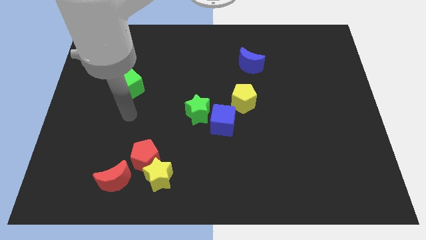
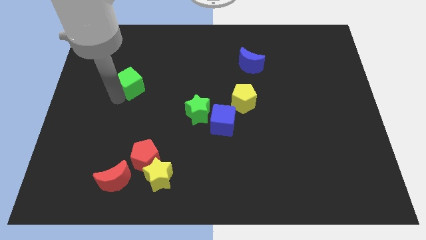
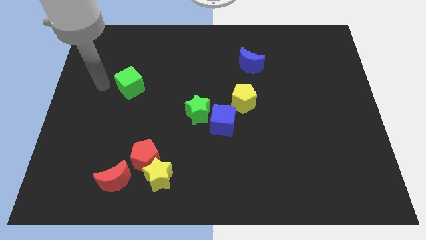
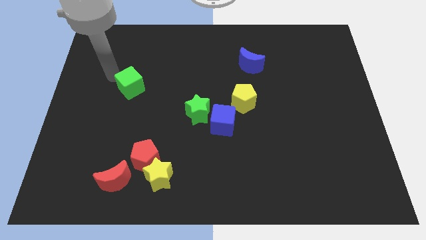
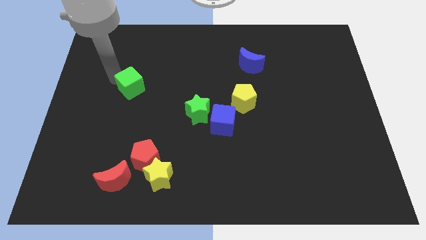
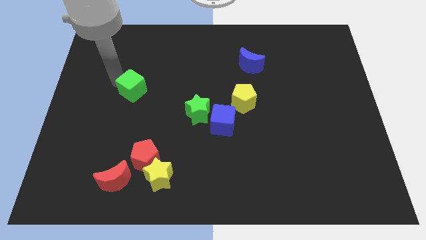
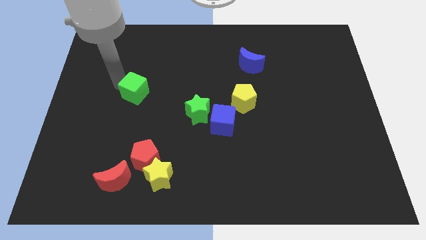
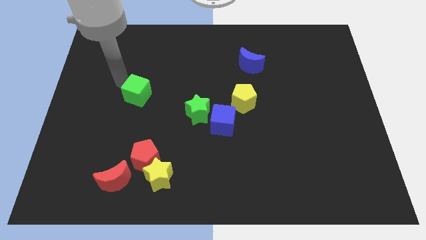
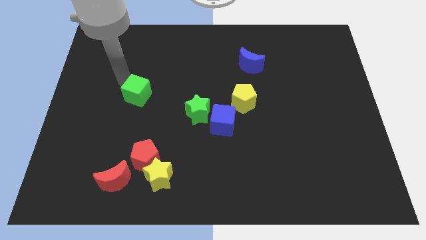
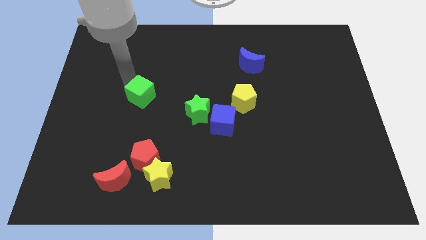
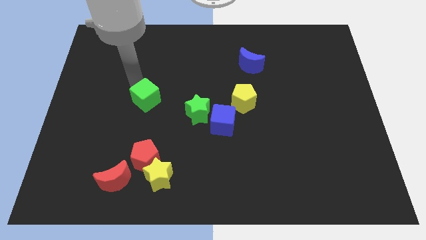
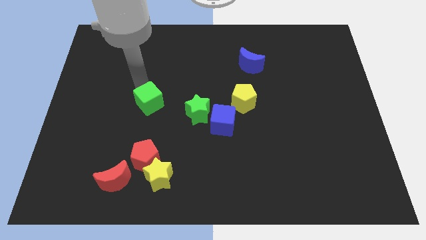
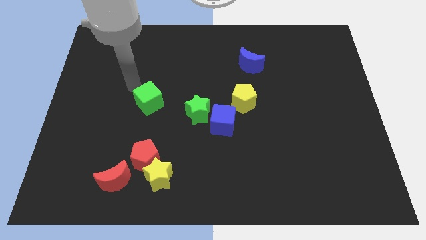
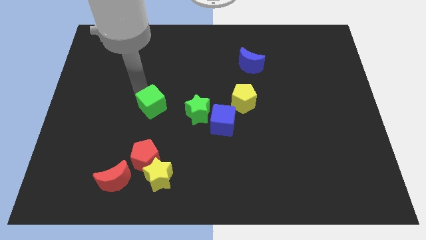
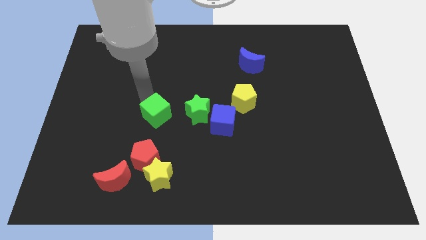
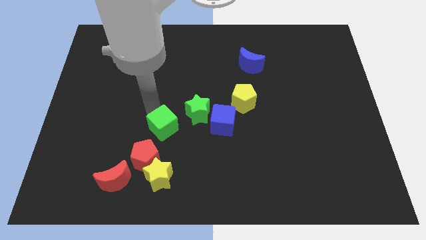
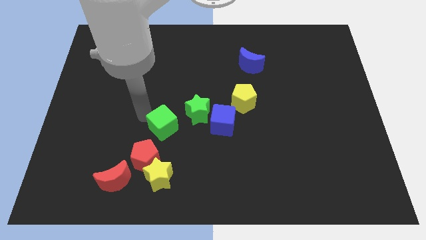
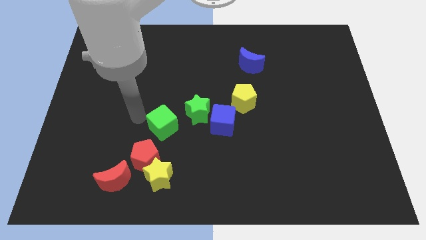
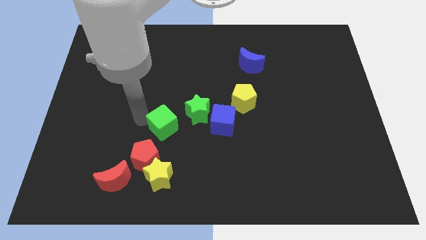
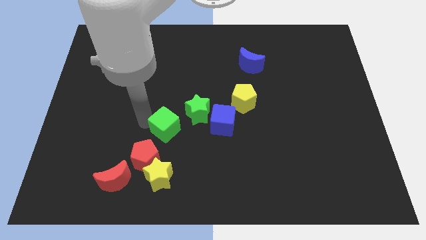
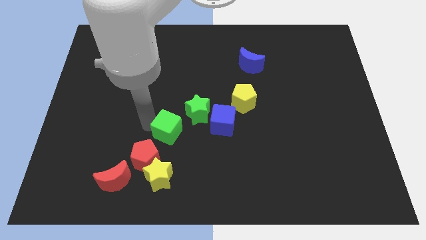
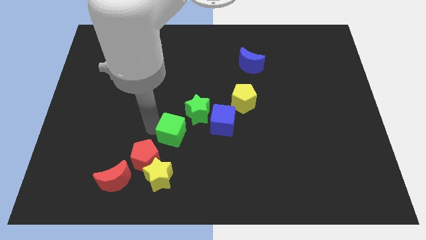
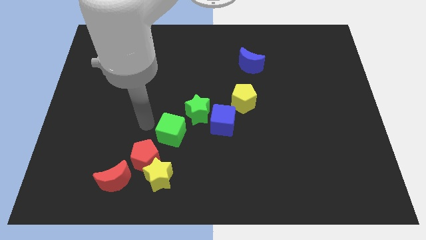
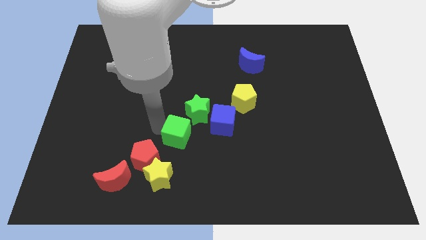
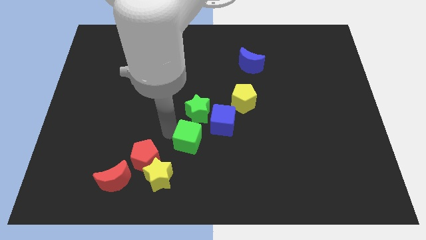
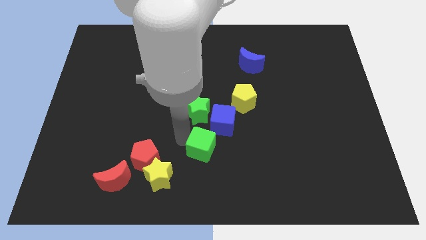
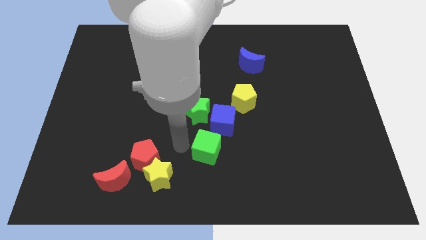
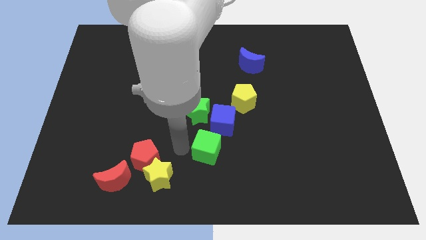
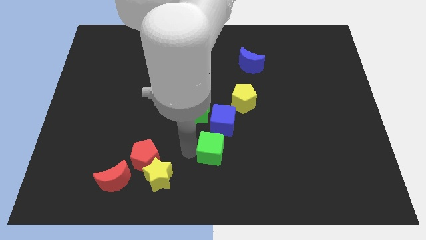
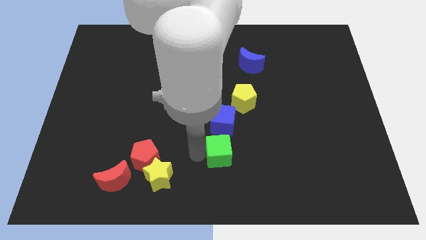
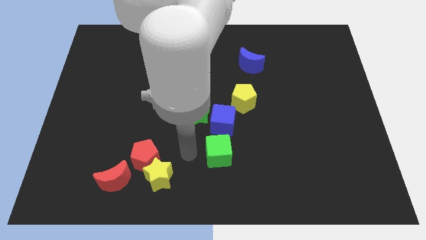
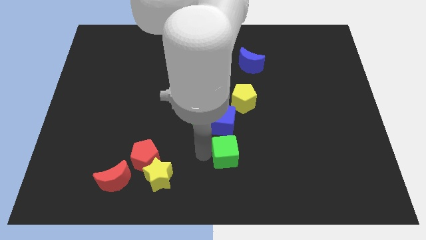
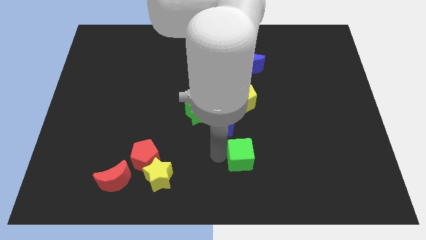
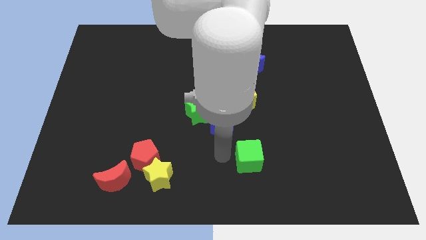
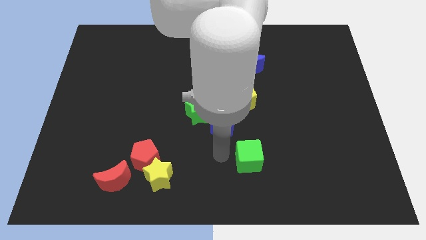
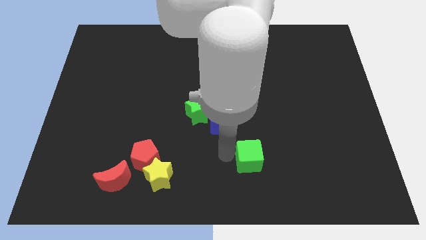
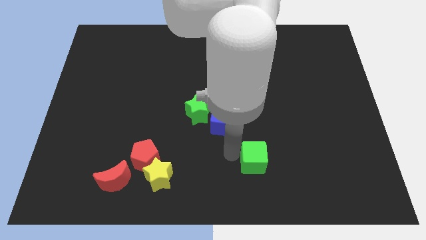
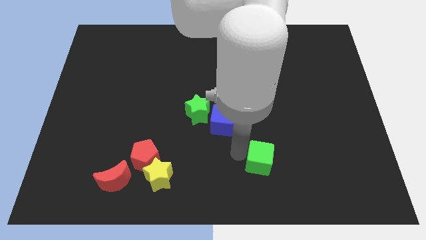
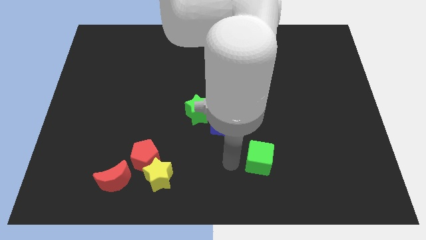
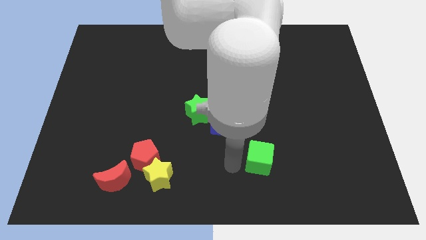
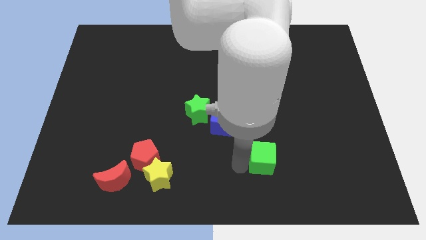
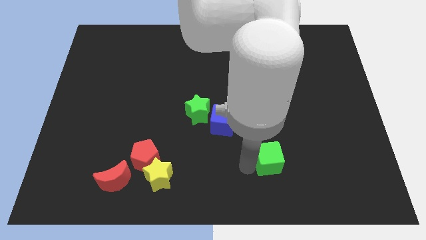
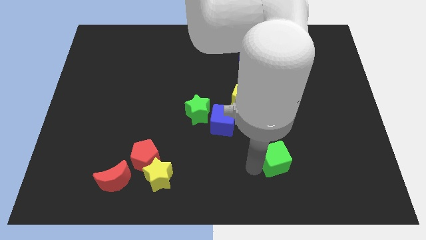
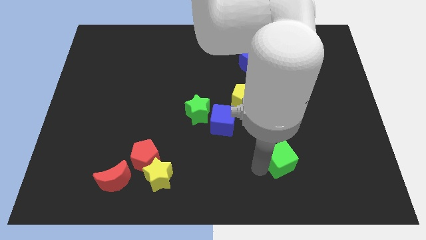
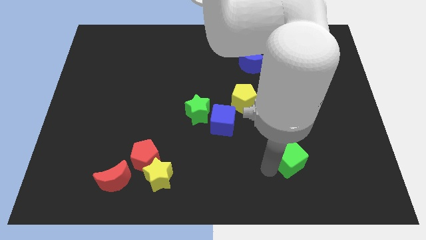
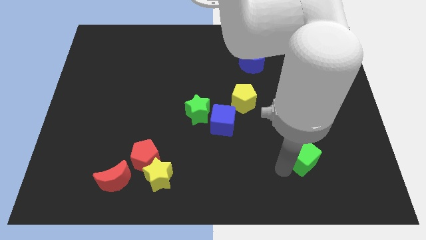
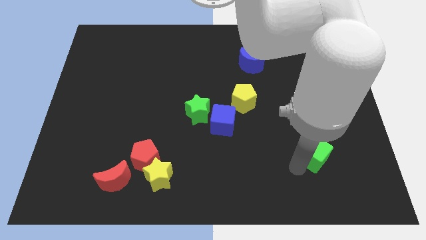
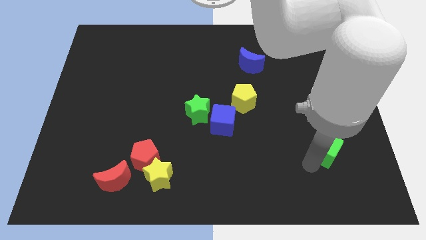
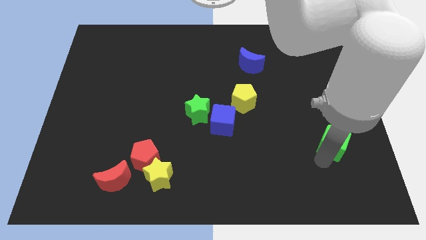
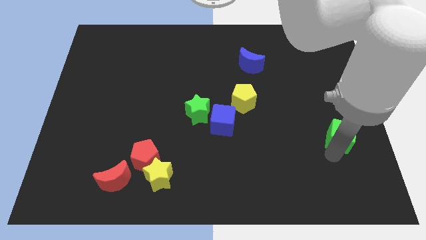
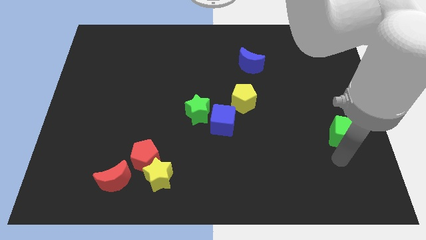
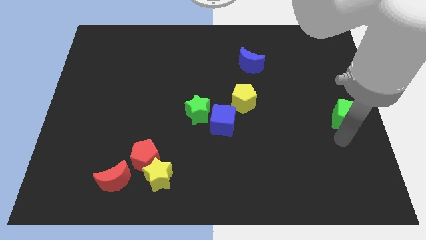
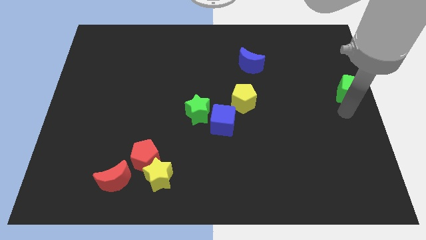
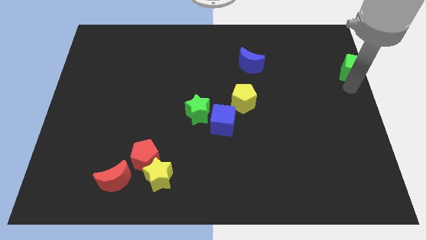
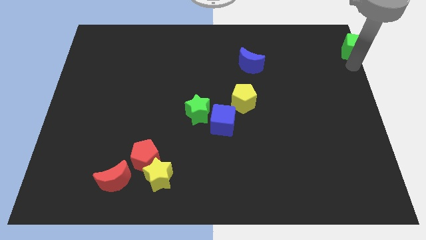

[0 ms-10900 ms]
move the green cube to the top right of the board

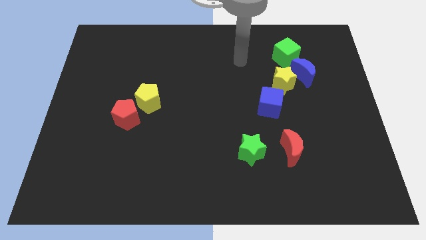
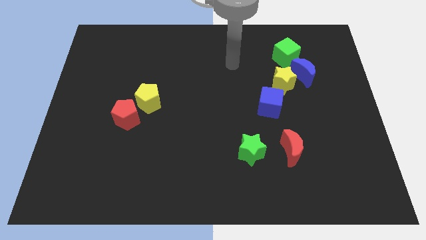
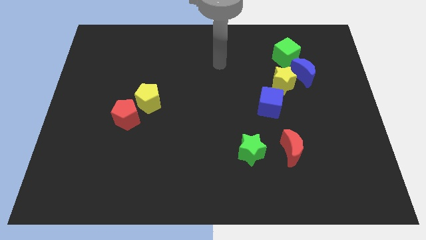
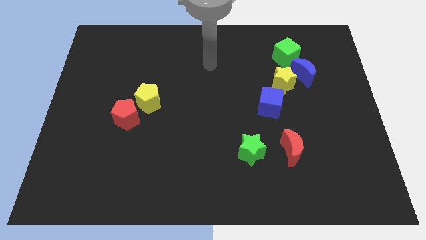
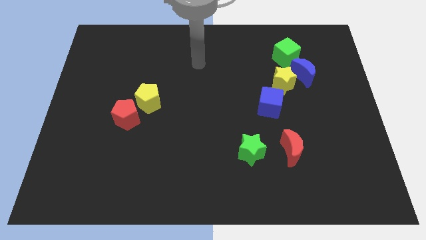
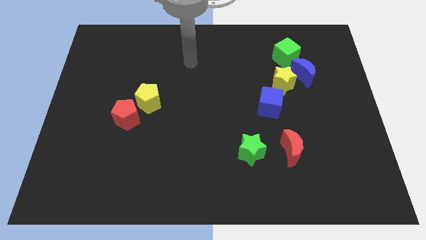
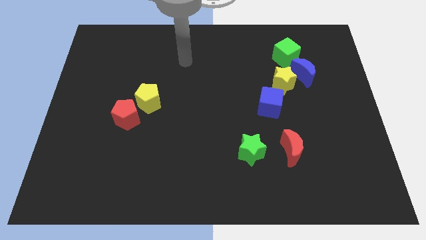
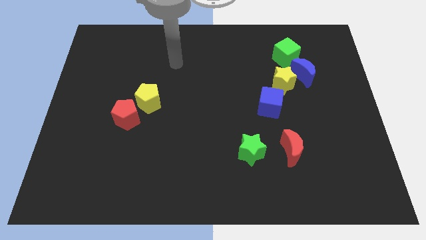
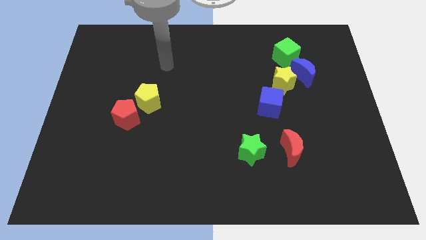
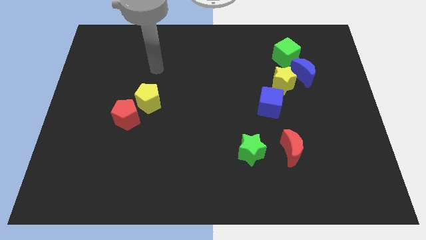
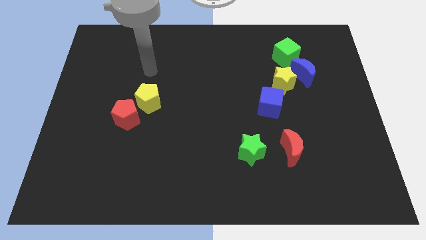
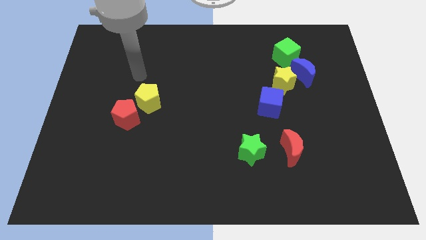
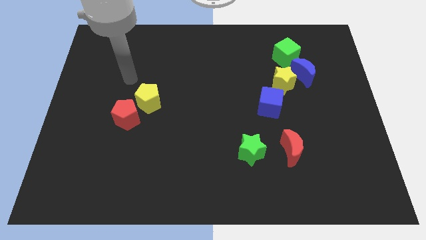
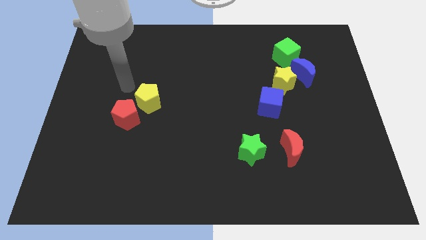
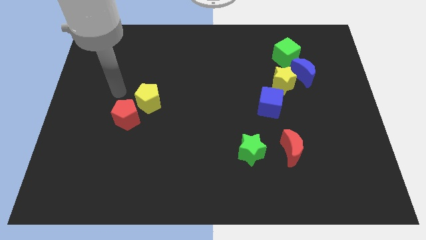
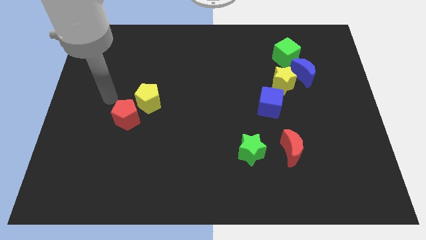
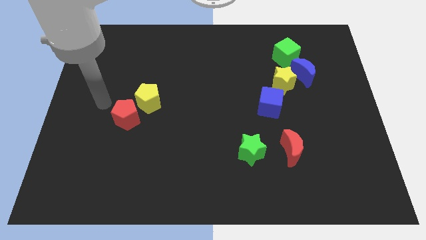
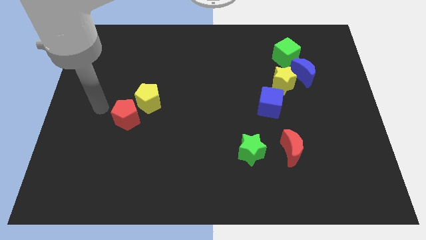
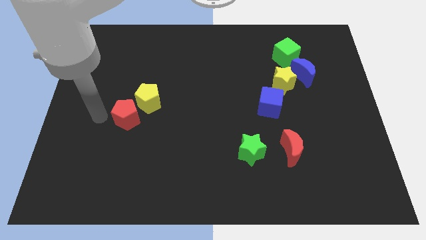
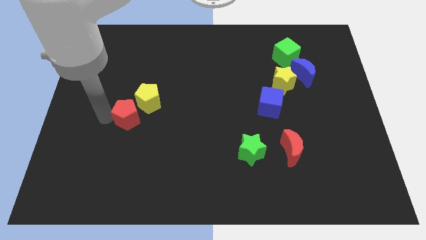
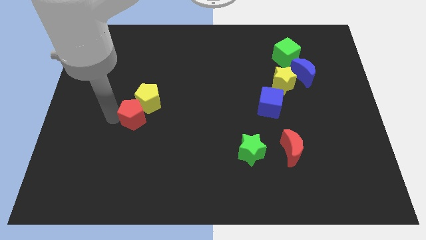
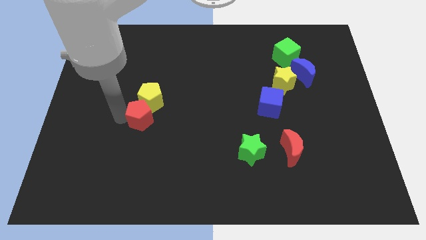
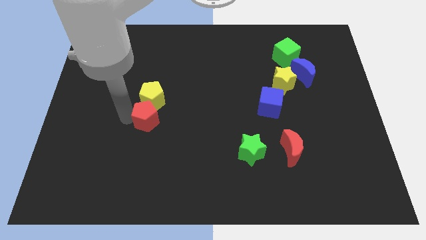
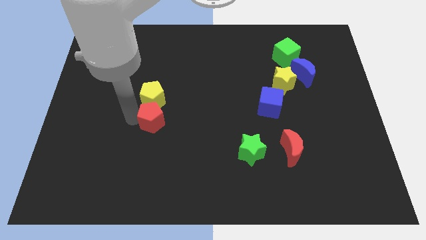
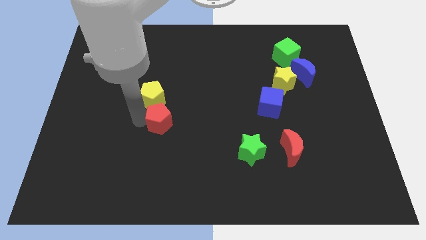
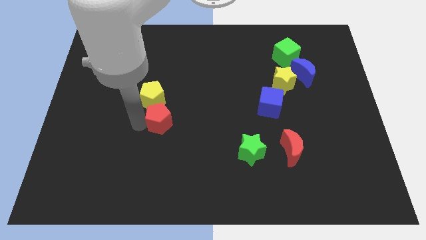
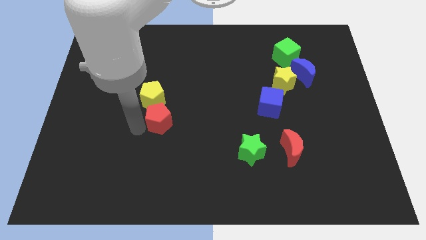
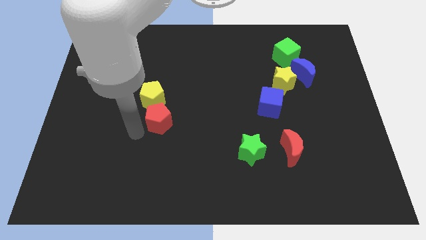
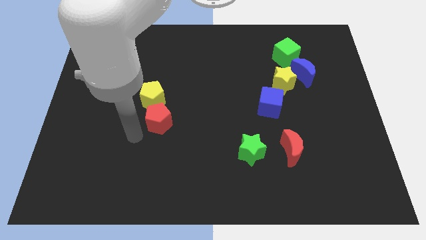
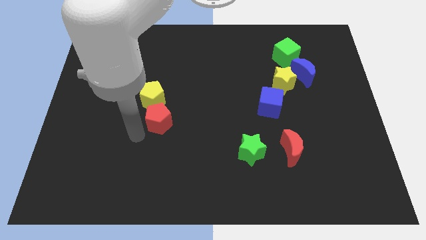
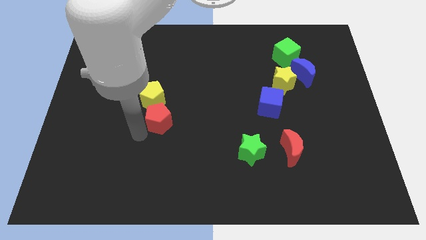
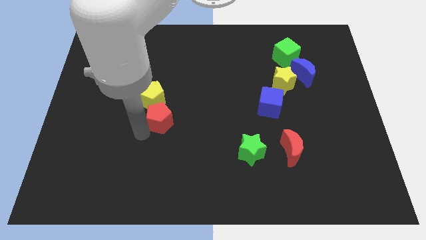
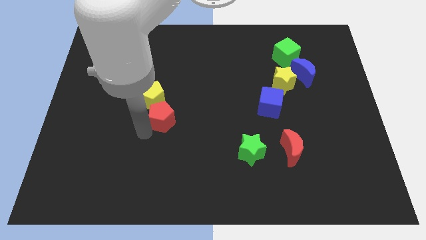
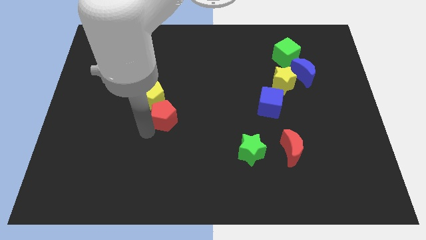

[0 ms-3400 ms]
move the red pentagon to the middle of the board
